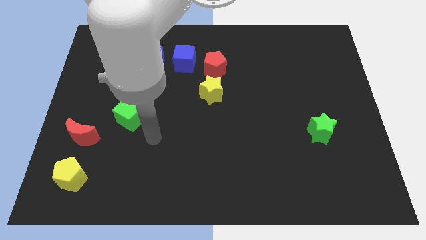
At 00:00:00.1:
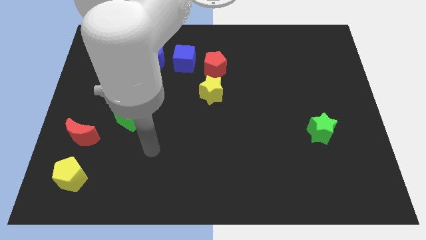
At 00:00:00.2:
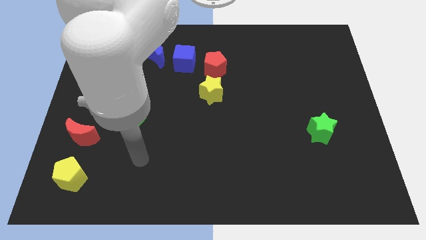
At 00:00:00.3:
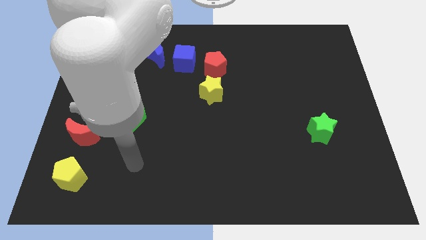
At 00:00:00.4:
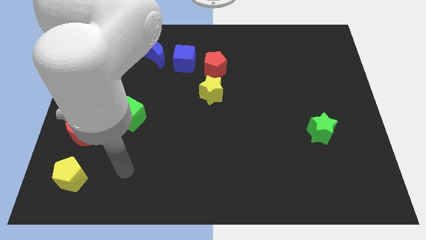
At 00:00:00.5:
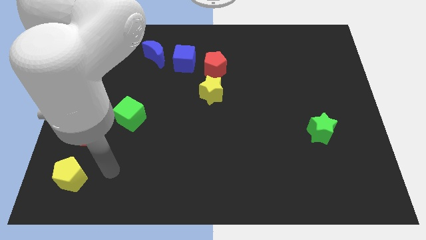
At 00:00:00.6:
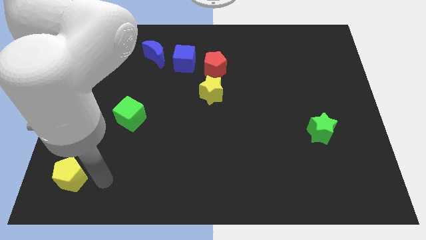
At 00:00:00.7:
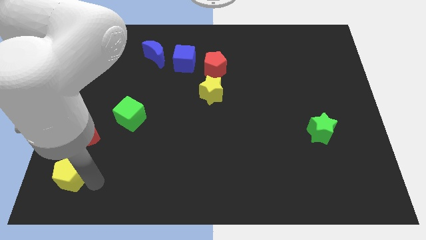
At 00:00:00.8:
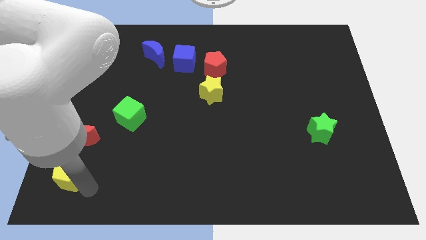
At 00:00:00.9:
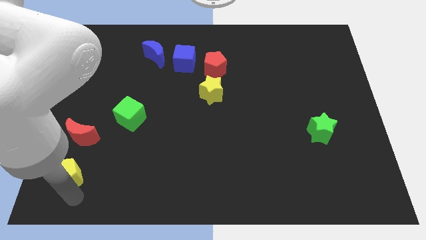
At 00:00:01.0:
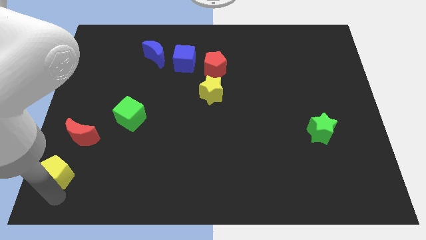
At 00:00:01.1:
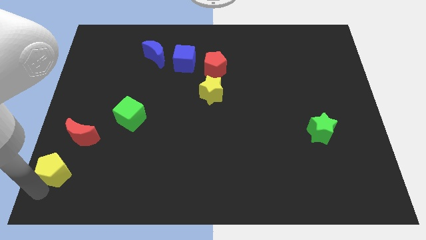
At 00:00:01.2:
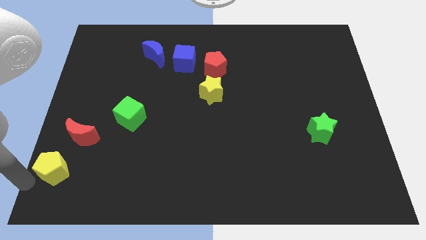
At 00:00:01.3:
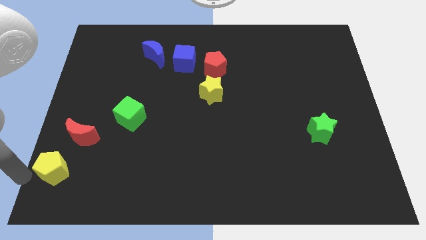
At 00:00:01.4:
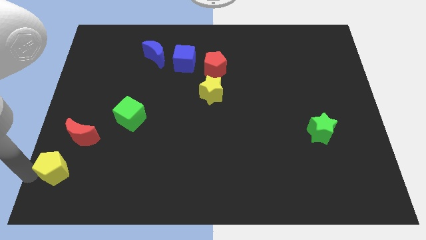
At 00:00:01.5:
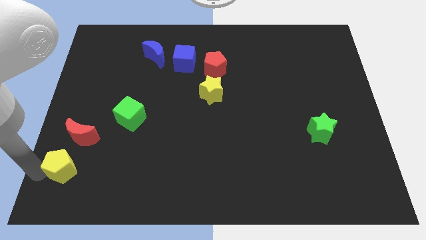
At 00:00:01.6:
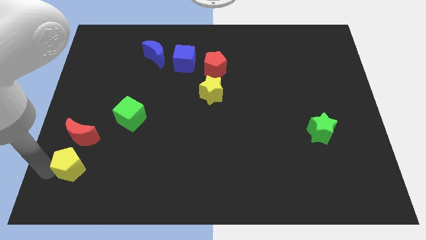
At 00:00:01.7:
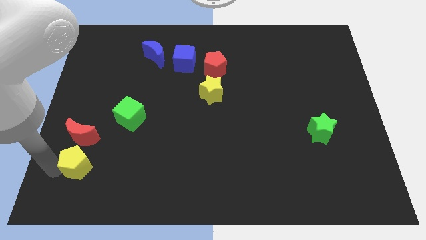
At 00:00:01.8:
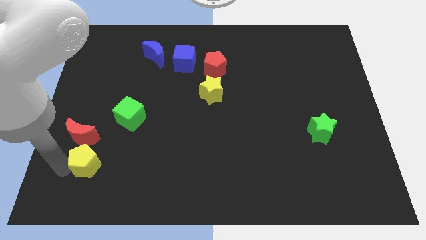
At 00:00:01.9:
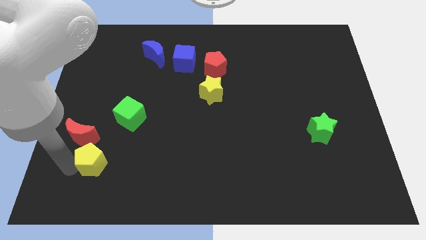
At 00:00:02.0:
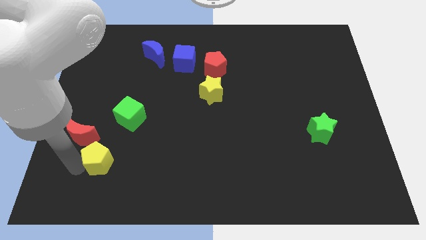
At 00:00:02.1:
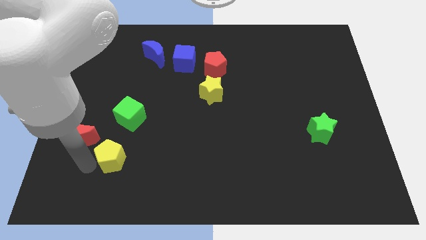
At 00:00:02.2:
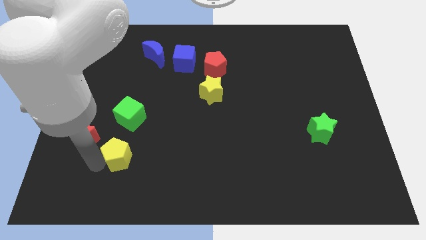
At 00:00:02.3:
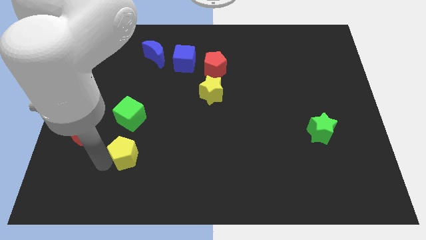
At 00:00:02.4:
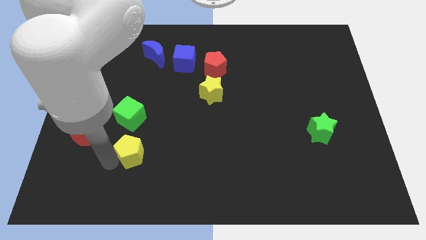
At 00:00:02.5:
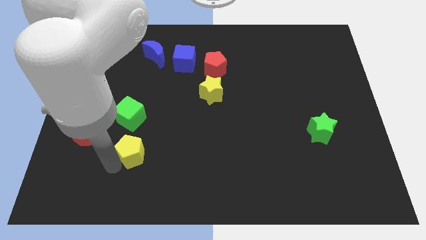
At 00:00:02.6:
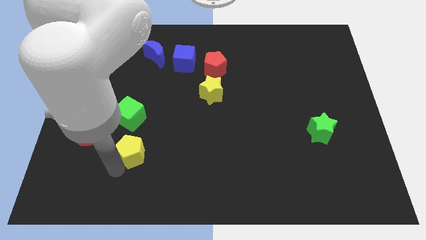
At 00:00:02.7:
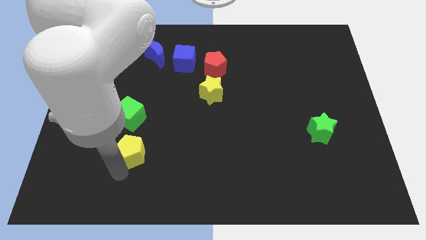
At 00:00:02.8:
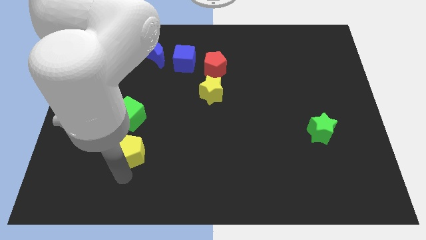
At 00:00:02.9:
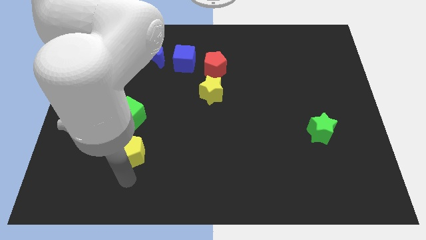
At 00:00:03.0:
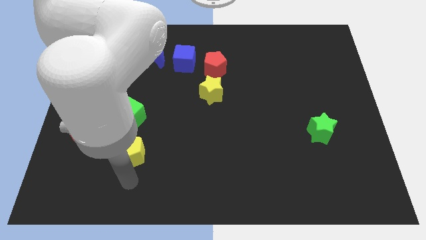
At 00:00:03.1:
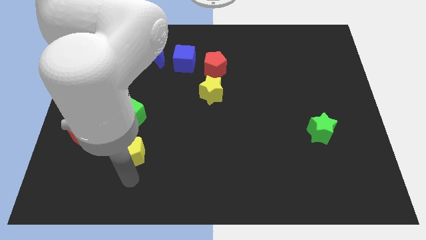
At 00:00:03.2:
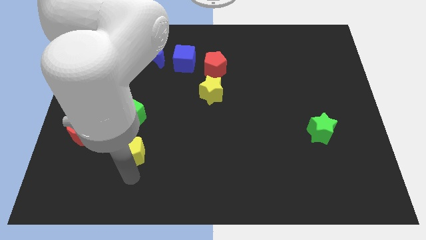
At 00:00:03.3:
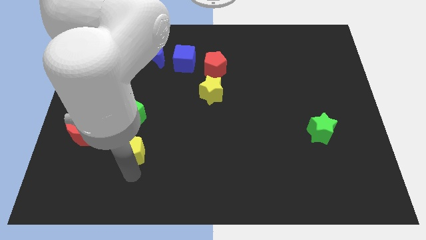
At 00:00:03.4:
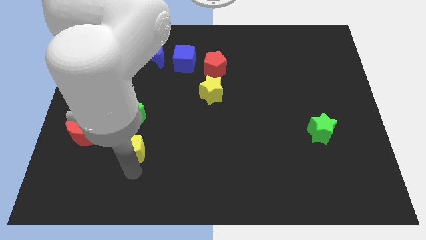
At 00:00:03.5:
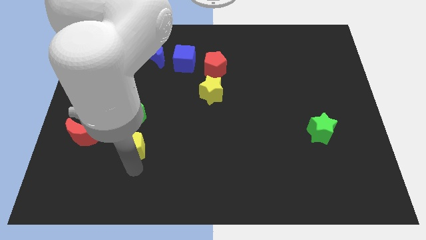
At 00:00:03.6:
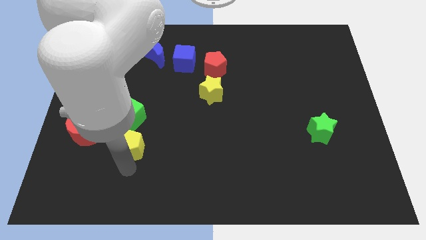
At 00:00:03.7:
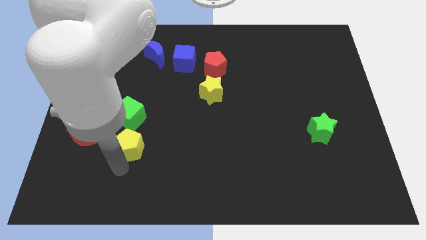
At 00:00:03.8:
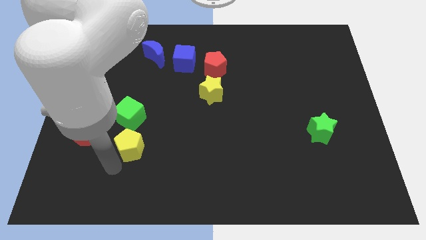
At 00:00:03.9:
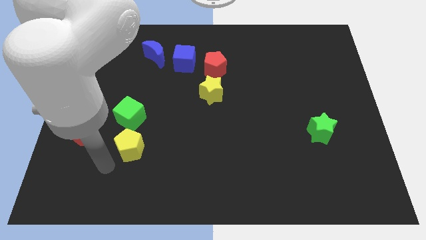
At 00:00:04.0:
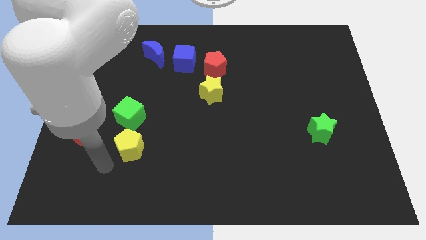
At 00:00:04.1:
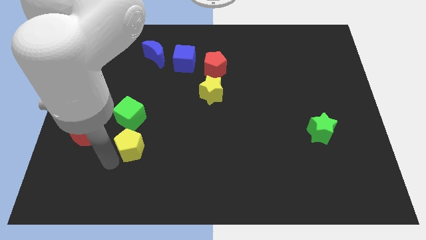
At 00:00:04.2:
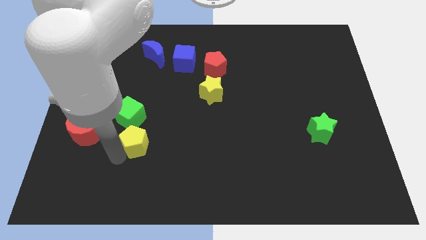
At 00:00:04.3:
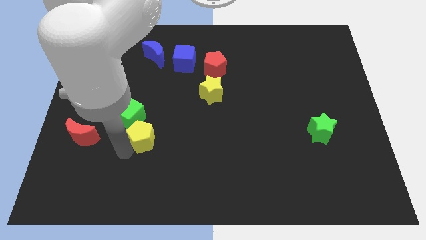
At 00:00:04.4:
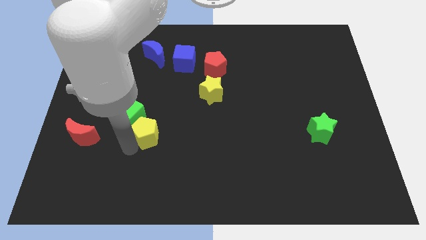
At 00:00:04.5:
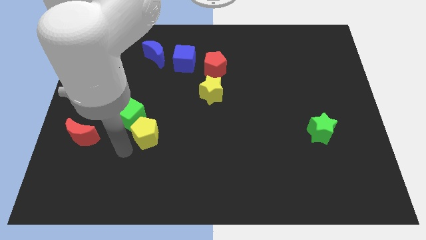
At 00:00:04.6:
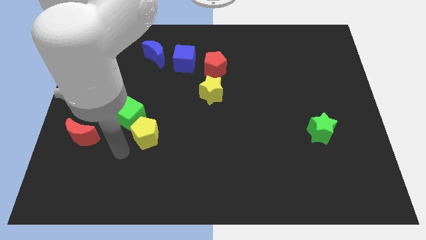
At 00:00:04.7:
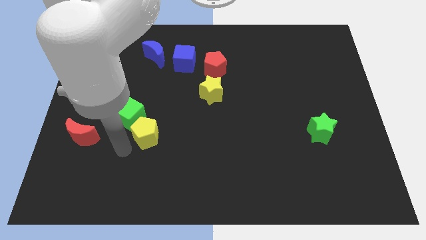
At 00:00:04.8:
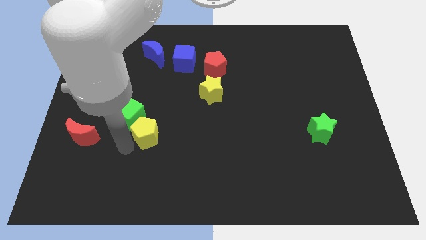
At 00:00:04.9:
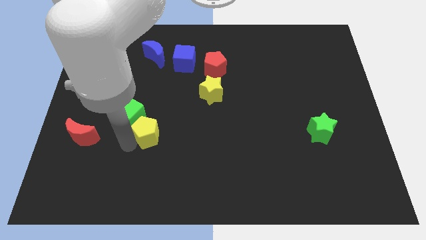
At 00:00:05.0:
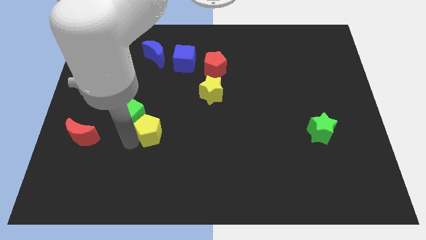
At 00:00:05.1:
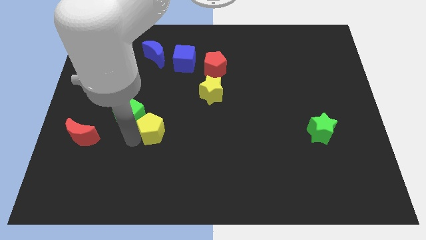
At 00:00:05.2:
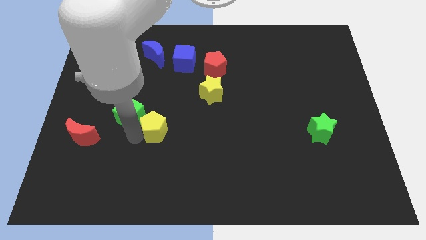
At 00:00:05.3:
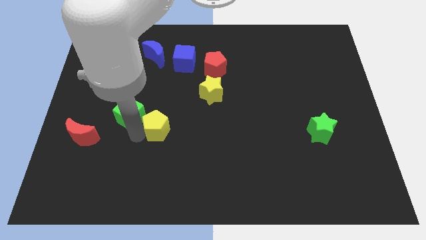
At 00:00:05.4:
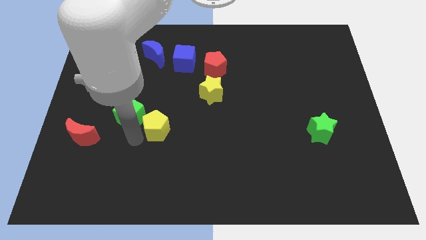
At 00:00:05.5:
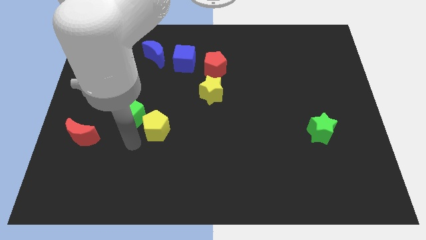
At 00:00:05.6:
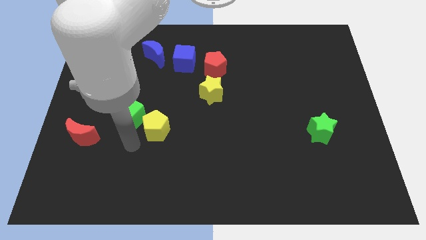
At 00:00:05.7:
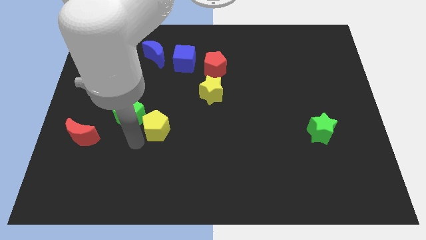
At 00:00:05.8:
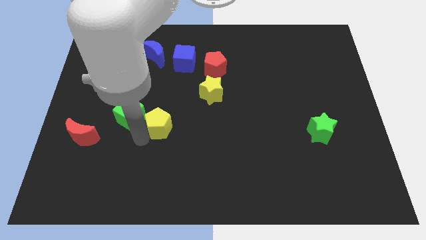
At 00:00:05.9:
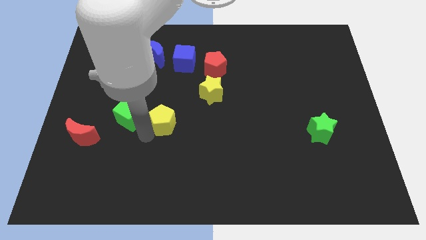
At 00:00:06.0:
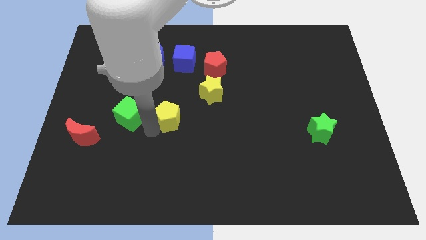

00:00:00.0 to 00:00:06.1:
push the yellow pentagon diagonally down and to the left of the yellow star

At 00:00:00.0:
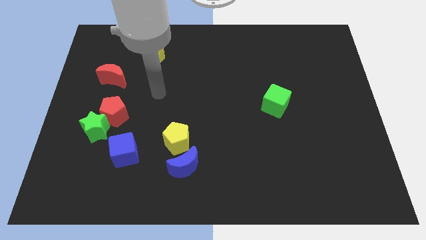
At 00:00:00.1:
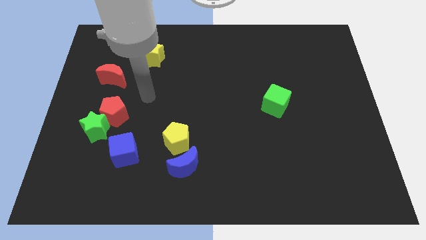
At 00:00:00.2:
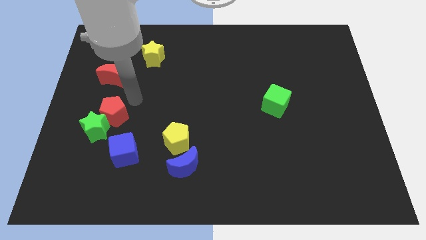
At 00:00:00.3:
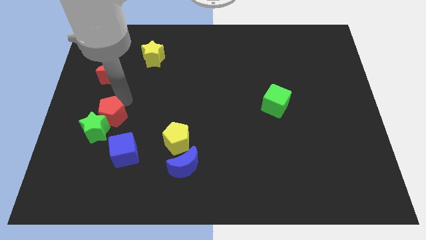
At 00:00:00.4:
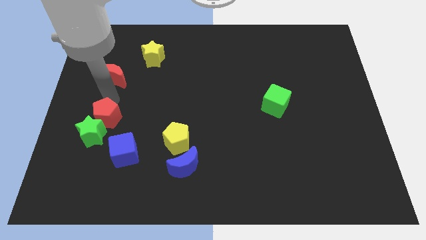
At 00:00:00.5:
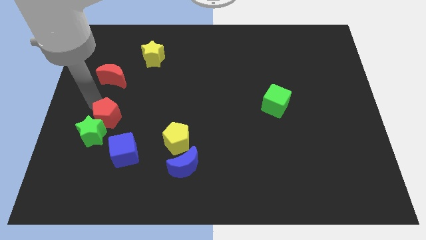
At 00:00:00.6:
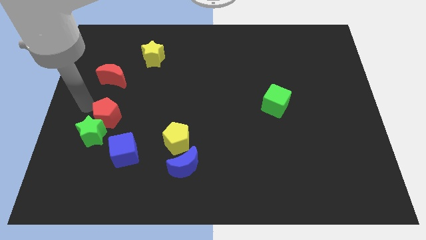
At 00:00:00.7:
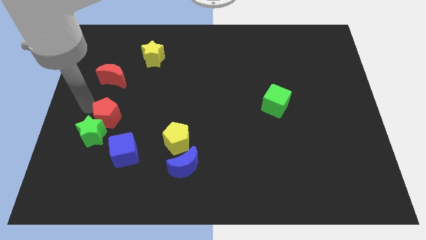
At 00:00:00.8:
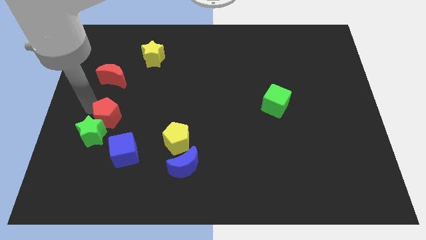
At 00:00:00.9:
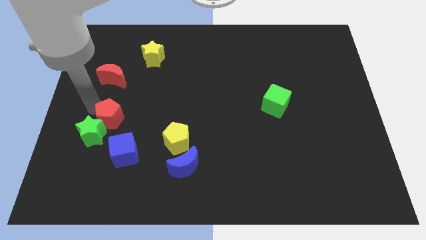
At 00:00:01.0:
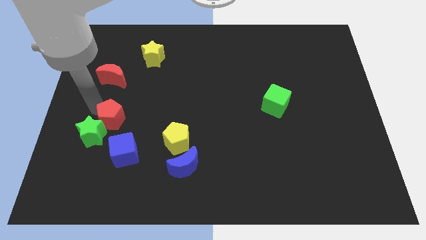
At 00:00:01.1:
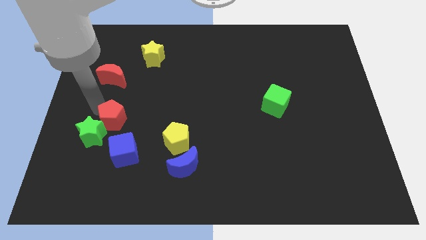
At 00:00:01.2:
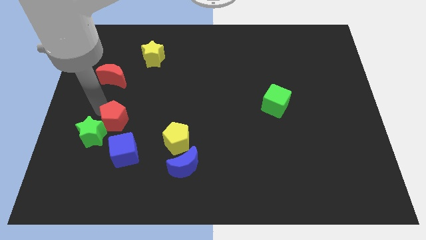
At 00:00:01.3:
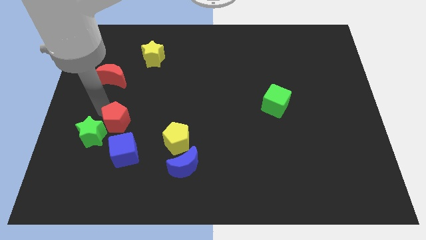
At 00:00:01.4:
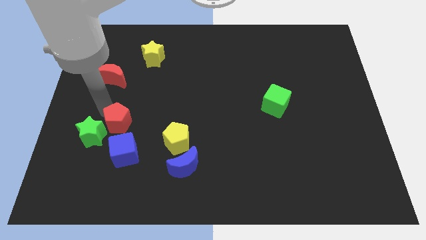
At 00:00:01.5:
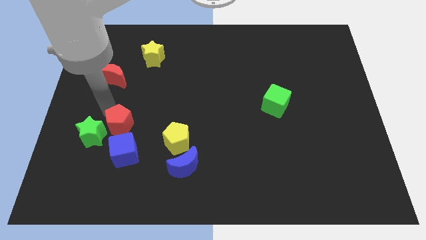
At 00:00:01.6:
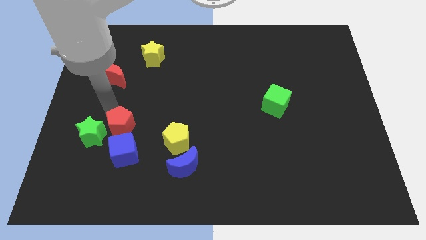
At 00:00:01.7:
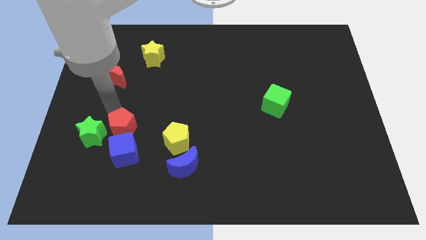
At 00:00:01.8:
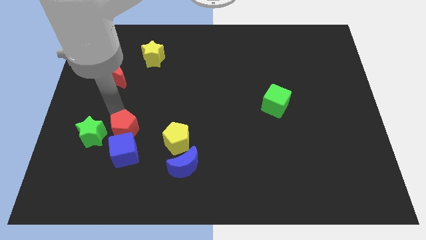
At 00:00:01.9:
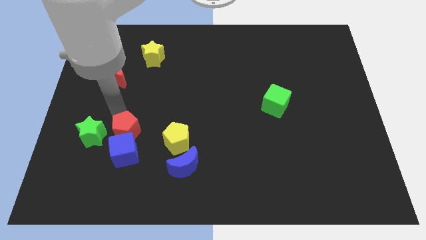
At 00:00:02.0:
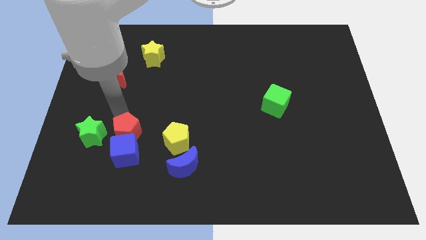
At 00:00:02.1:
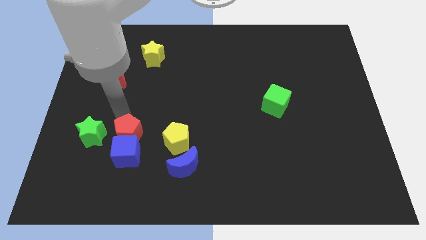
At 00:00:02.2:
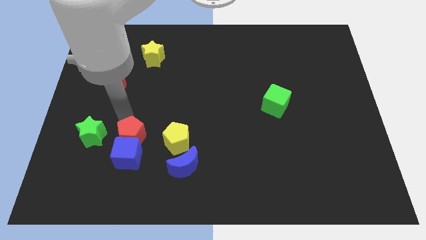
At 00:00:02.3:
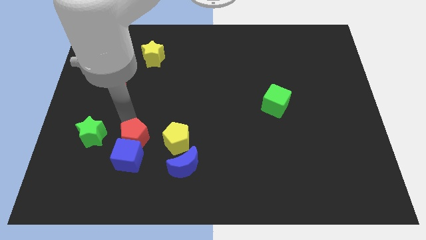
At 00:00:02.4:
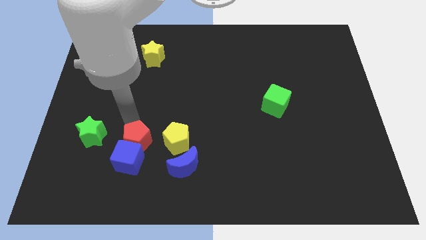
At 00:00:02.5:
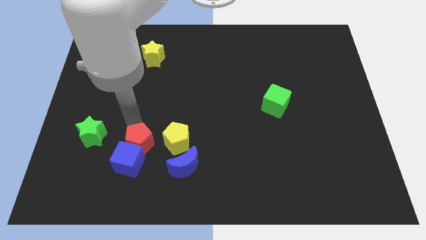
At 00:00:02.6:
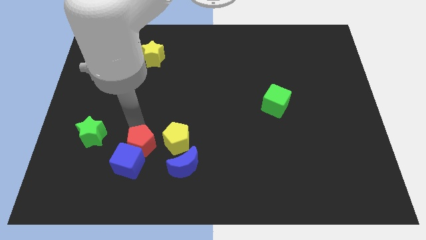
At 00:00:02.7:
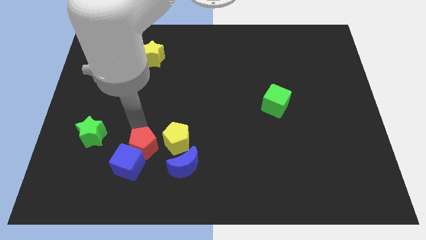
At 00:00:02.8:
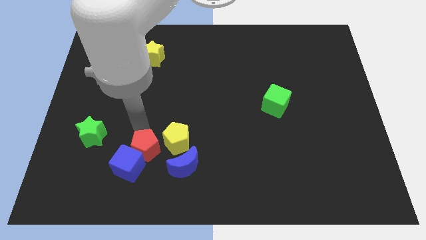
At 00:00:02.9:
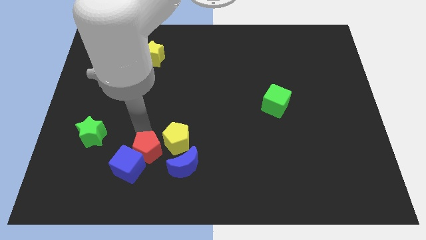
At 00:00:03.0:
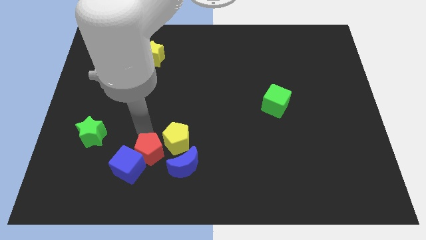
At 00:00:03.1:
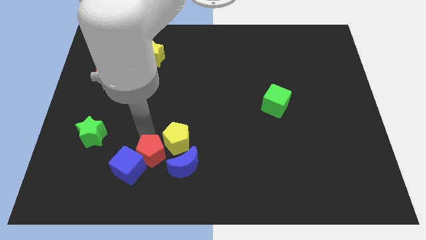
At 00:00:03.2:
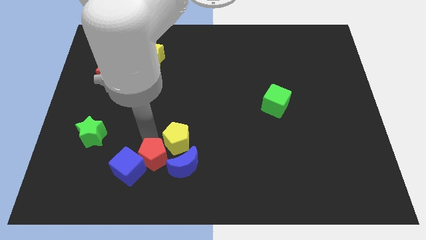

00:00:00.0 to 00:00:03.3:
move the red pentagon below the yellow pentagon
